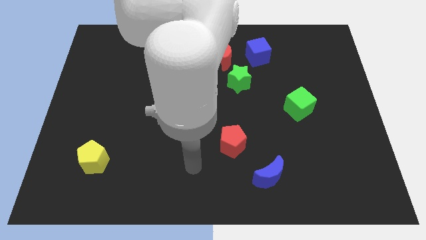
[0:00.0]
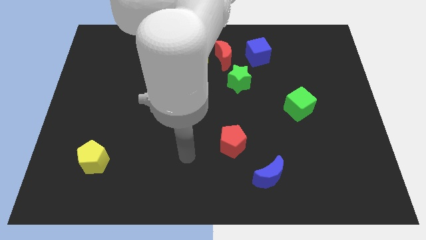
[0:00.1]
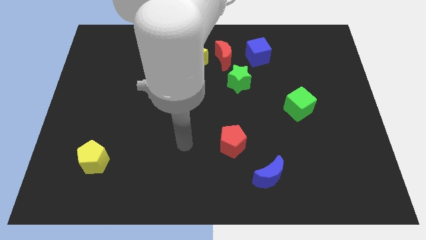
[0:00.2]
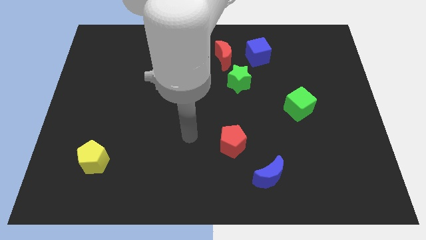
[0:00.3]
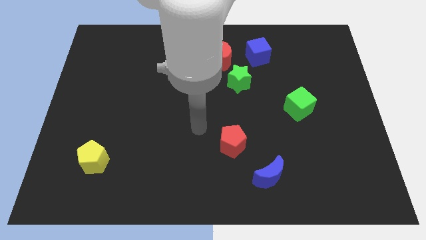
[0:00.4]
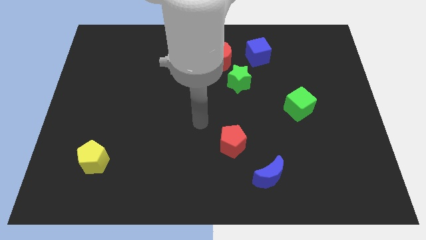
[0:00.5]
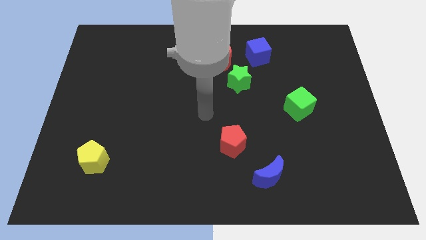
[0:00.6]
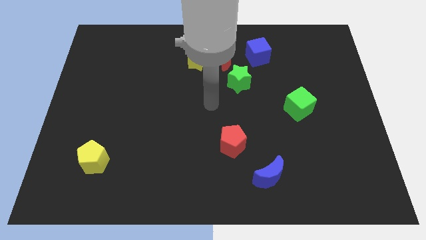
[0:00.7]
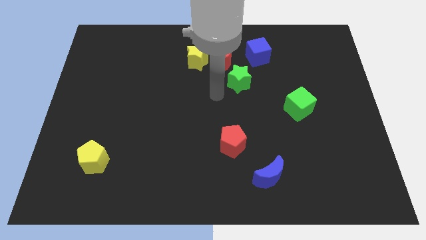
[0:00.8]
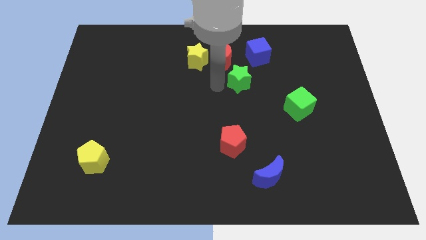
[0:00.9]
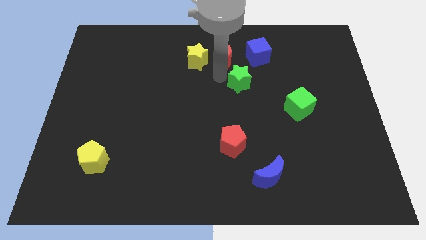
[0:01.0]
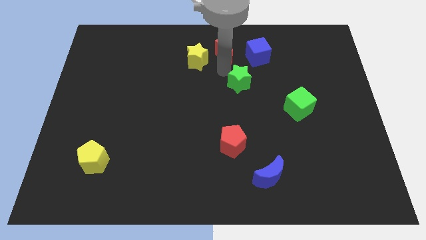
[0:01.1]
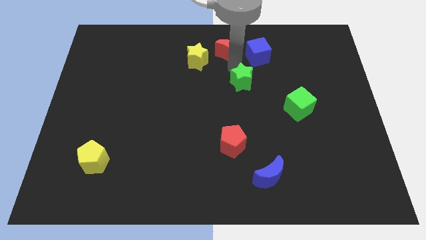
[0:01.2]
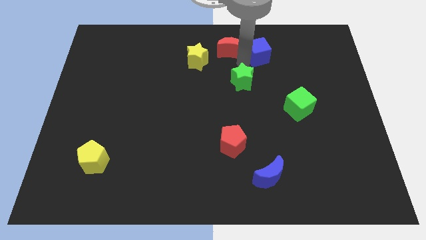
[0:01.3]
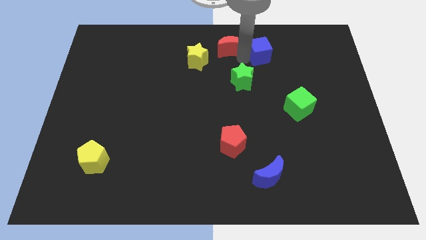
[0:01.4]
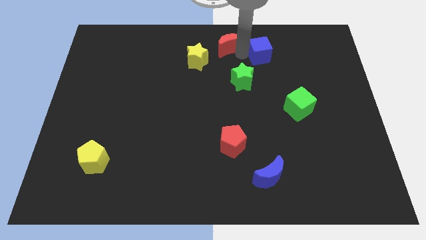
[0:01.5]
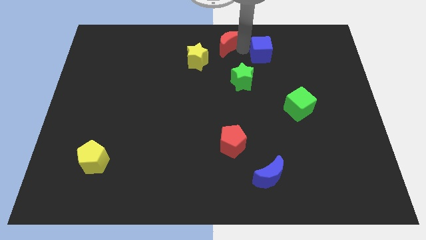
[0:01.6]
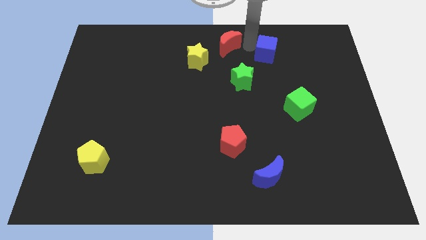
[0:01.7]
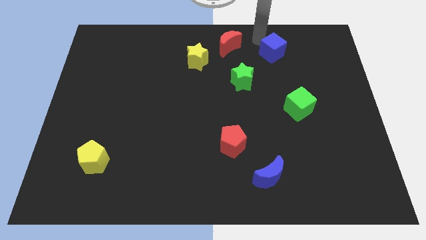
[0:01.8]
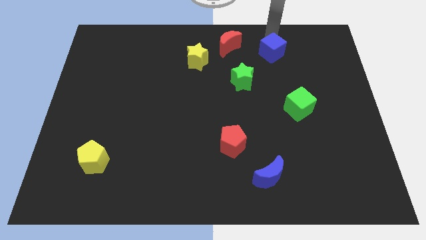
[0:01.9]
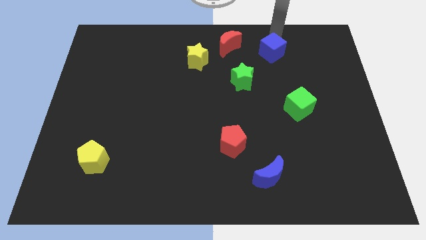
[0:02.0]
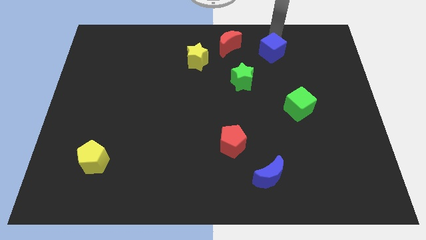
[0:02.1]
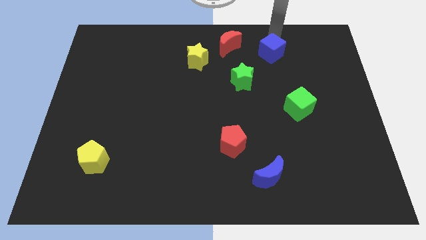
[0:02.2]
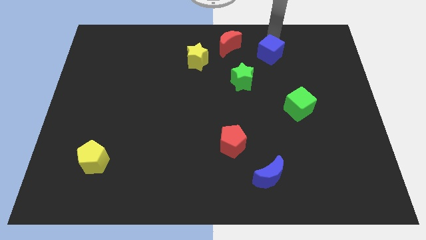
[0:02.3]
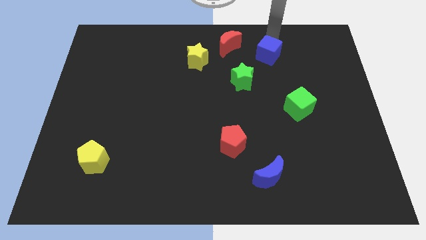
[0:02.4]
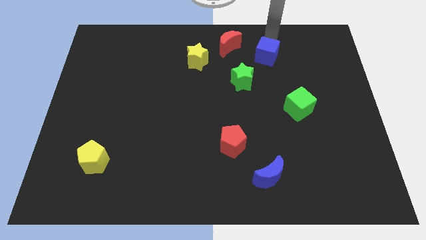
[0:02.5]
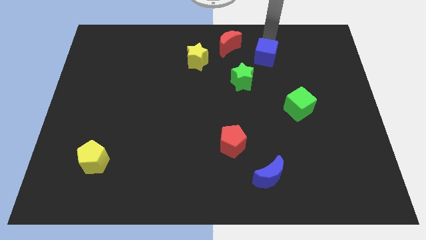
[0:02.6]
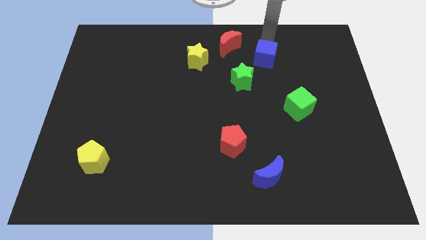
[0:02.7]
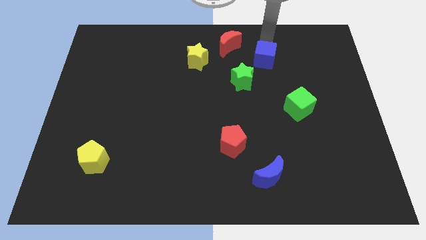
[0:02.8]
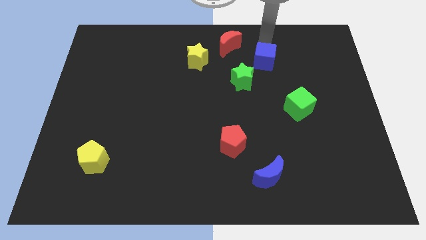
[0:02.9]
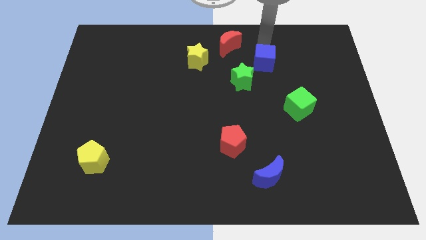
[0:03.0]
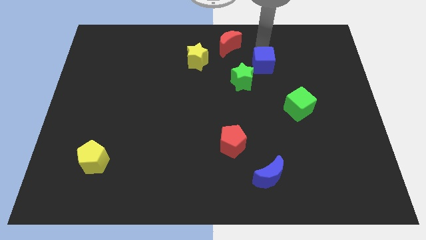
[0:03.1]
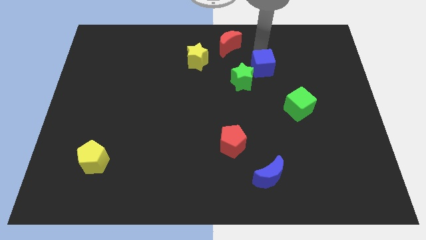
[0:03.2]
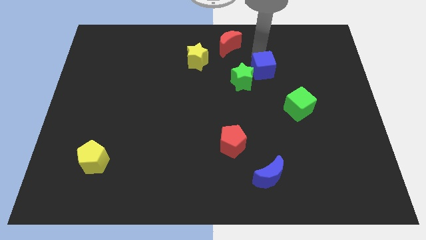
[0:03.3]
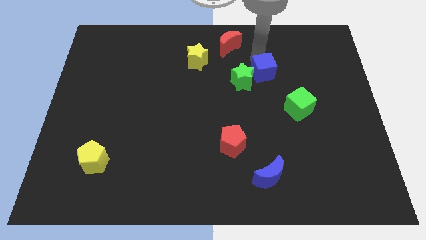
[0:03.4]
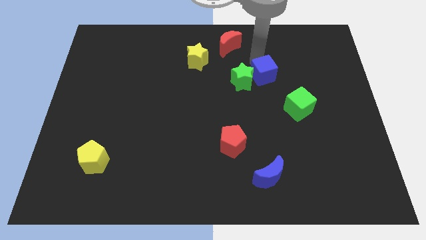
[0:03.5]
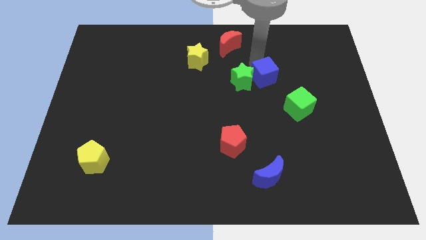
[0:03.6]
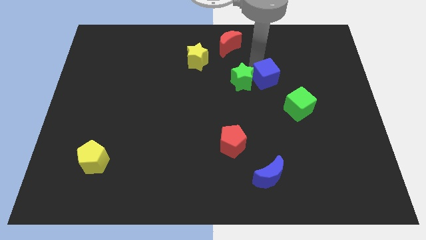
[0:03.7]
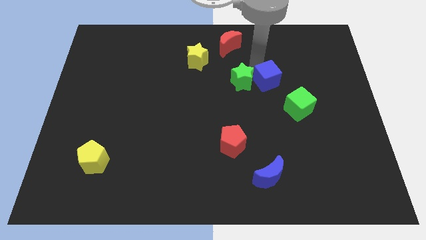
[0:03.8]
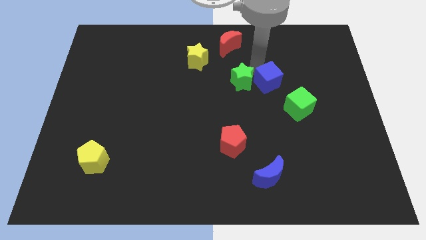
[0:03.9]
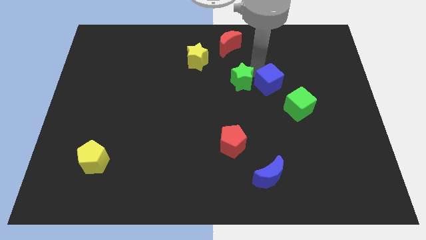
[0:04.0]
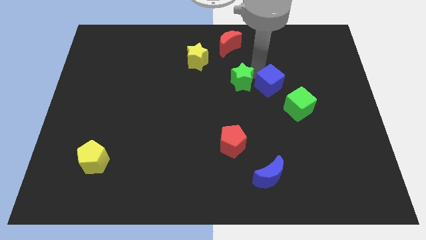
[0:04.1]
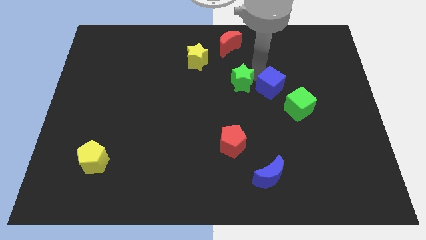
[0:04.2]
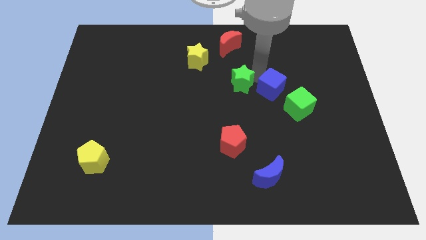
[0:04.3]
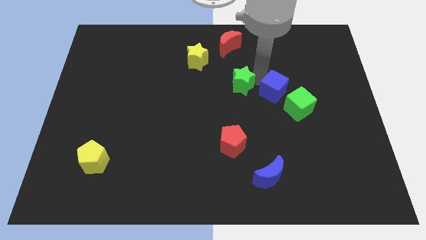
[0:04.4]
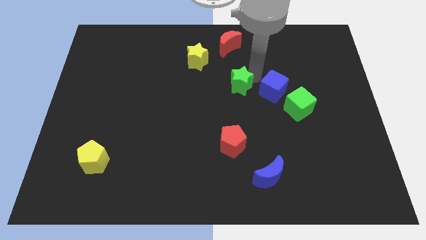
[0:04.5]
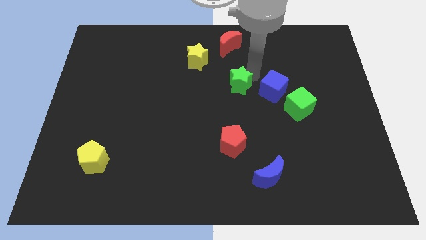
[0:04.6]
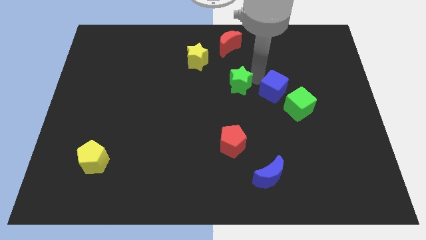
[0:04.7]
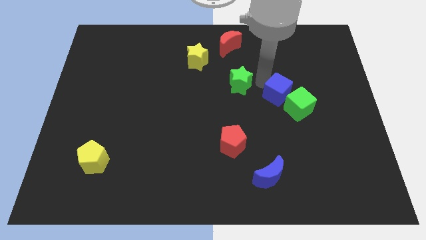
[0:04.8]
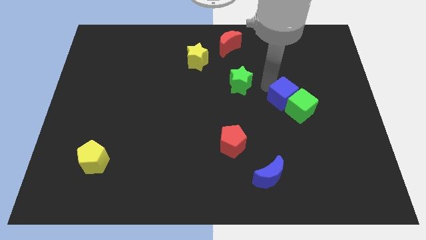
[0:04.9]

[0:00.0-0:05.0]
slide the blue cube next to the green cube

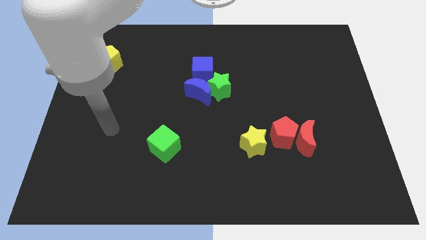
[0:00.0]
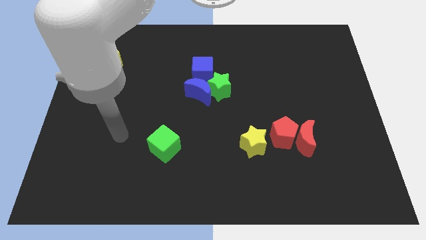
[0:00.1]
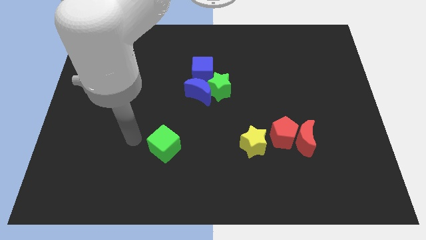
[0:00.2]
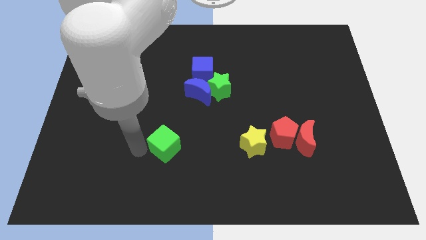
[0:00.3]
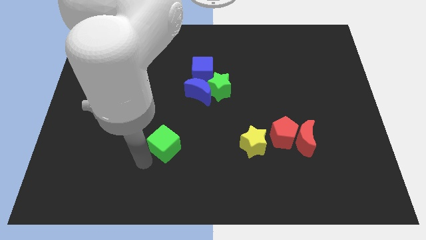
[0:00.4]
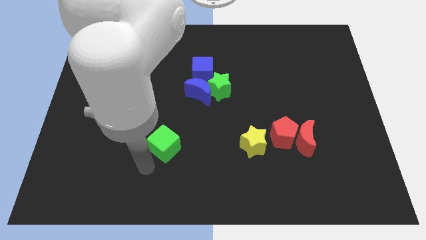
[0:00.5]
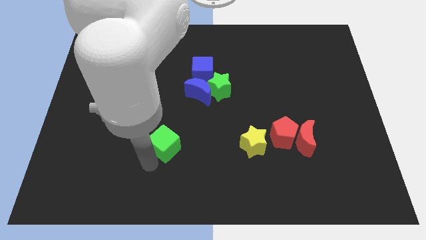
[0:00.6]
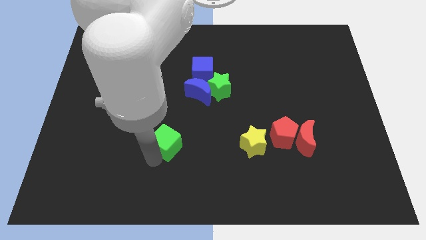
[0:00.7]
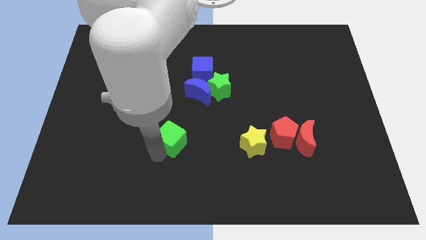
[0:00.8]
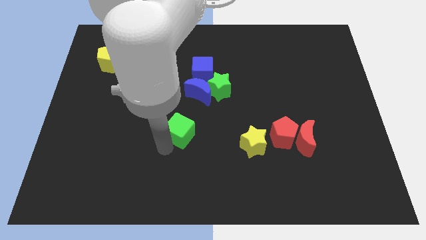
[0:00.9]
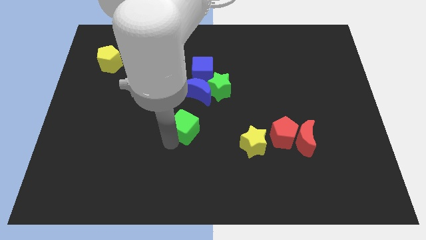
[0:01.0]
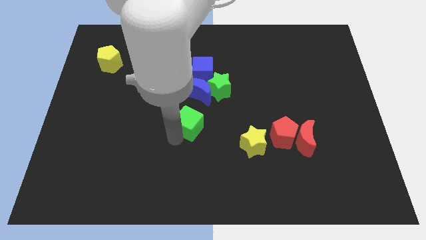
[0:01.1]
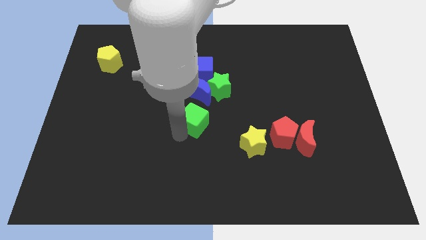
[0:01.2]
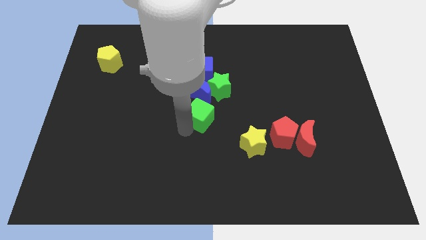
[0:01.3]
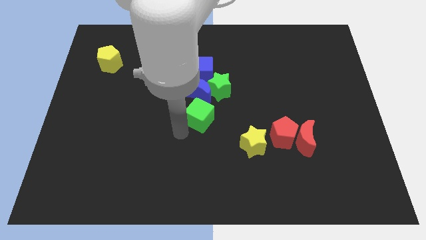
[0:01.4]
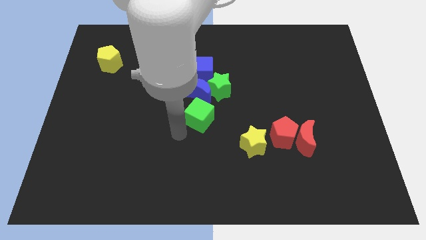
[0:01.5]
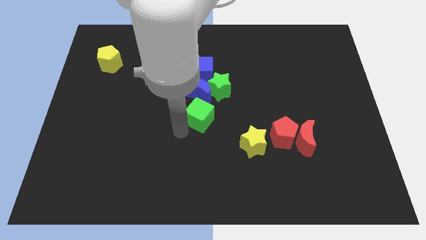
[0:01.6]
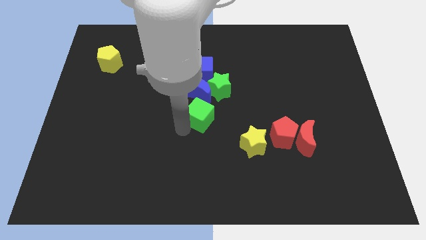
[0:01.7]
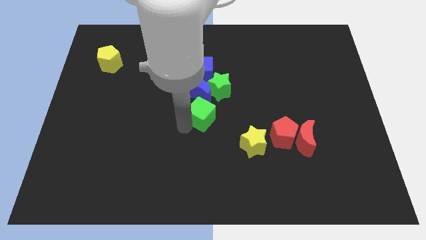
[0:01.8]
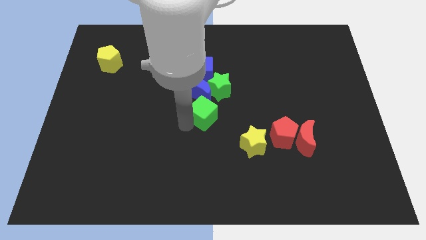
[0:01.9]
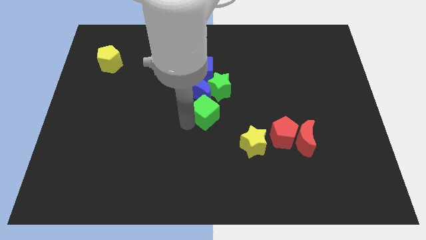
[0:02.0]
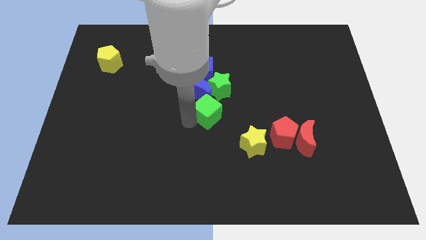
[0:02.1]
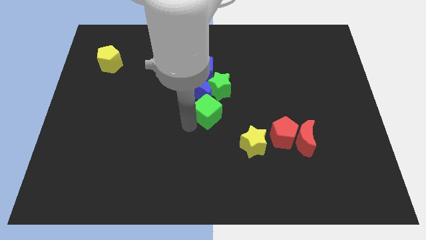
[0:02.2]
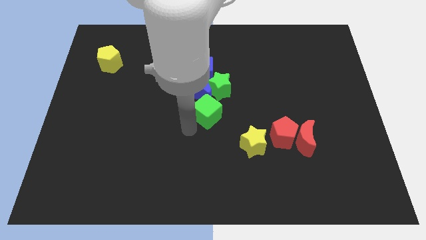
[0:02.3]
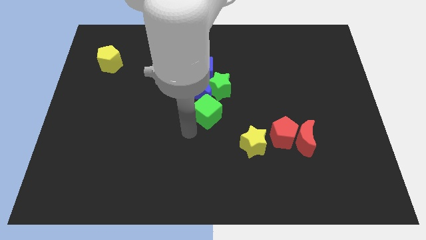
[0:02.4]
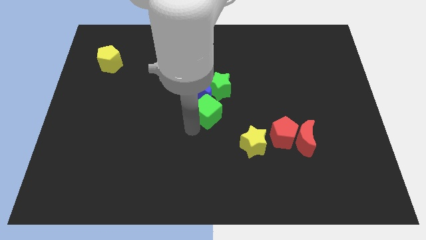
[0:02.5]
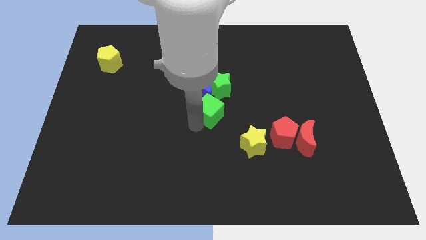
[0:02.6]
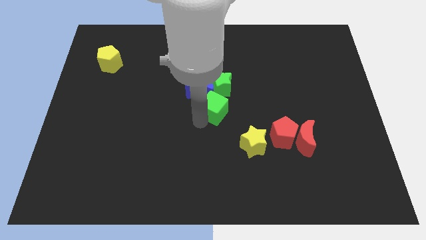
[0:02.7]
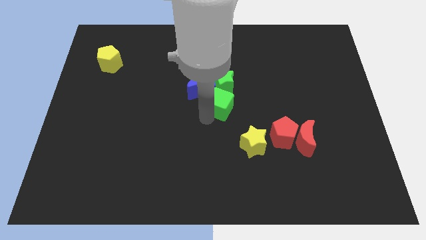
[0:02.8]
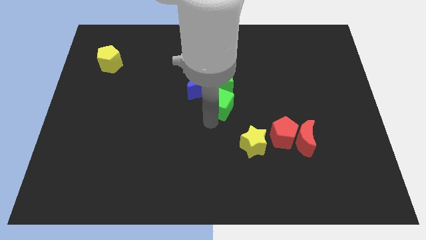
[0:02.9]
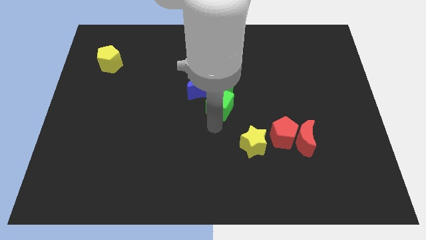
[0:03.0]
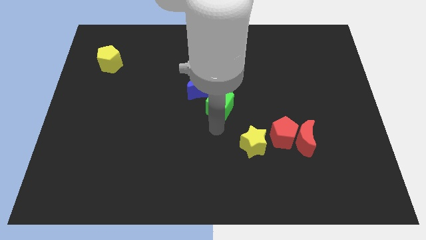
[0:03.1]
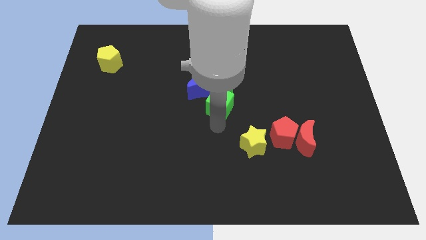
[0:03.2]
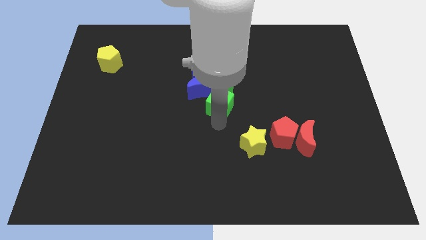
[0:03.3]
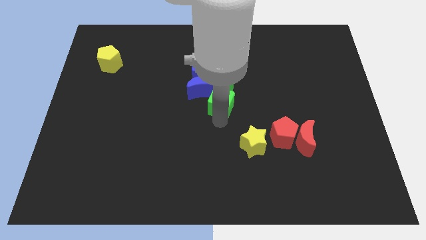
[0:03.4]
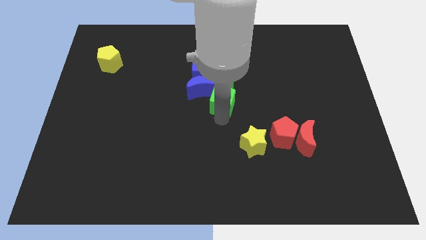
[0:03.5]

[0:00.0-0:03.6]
put the green cube to the green star
